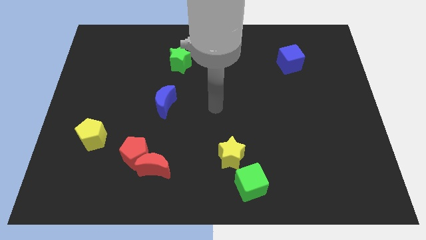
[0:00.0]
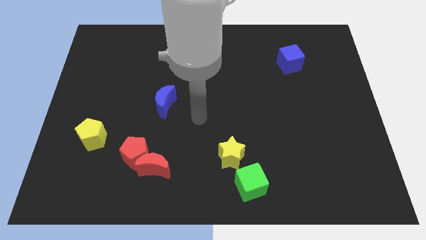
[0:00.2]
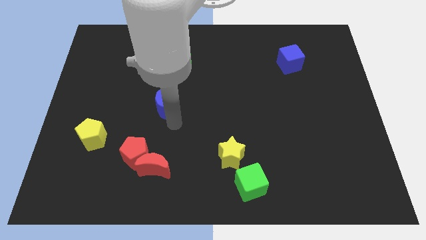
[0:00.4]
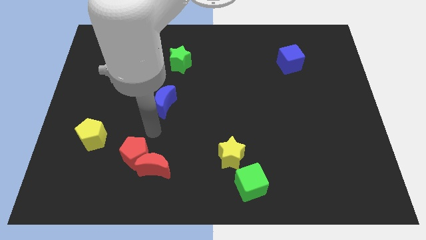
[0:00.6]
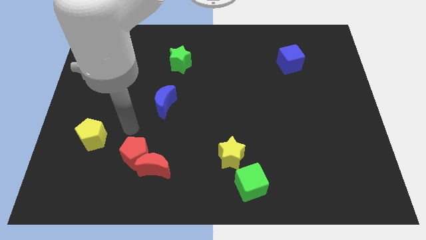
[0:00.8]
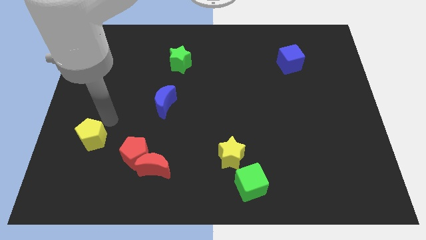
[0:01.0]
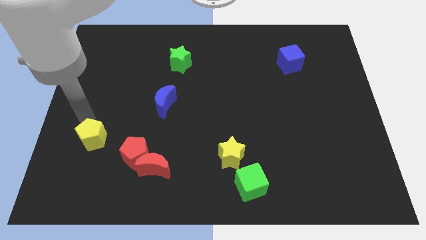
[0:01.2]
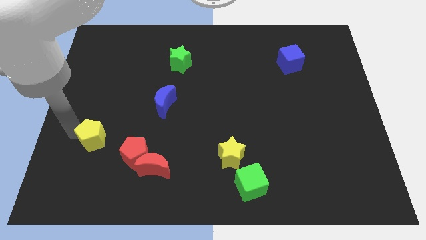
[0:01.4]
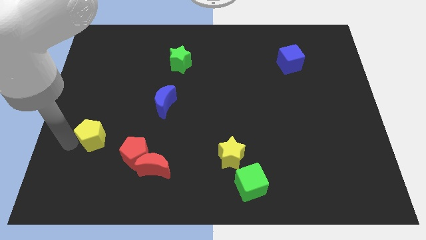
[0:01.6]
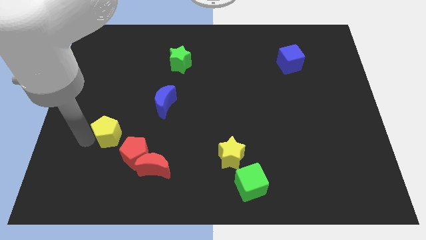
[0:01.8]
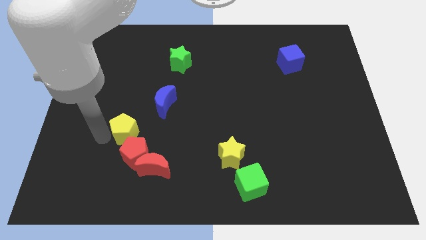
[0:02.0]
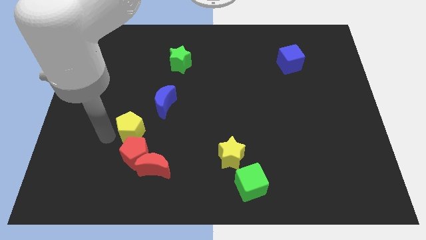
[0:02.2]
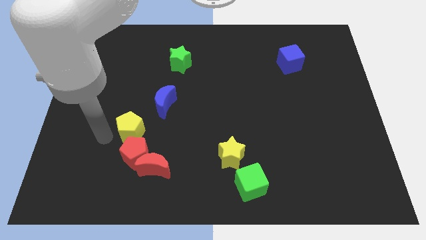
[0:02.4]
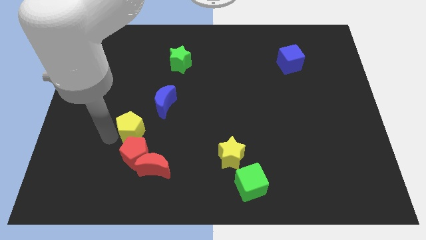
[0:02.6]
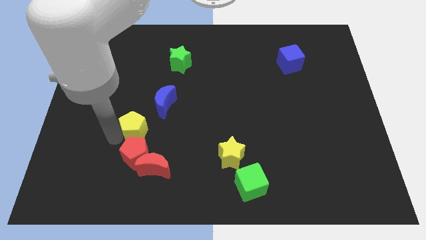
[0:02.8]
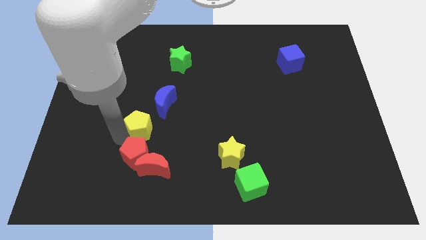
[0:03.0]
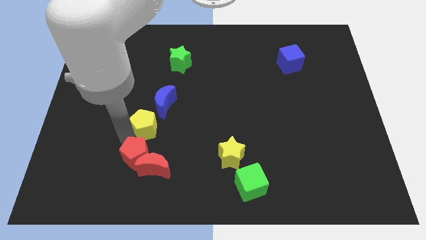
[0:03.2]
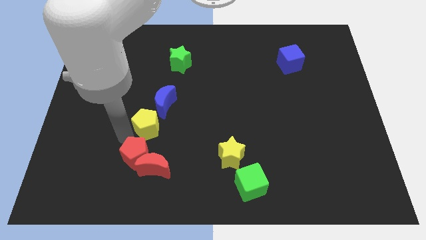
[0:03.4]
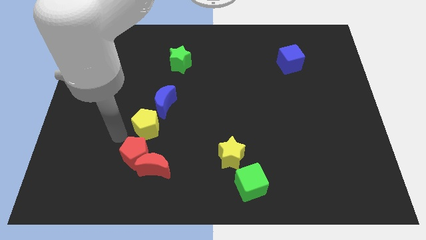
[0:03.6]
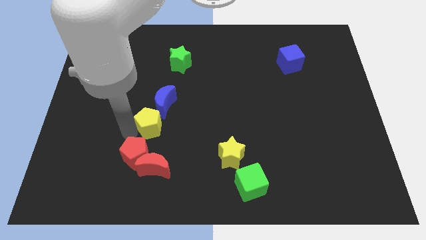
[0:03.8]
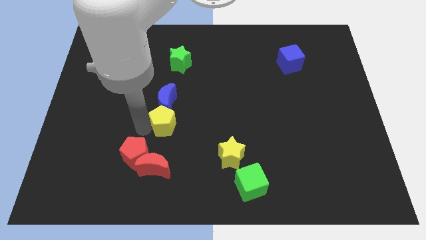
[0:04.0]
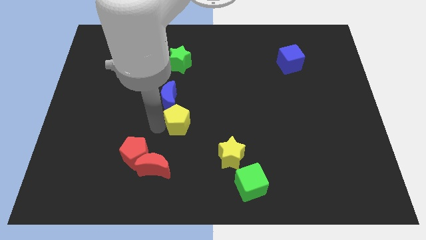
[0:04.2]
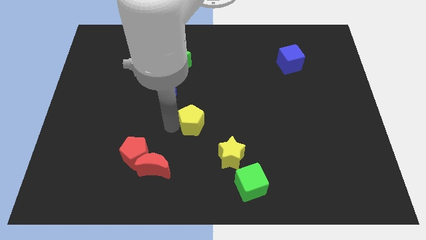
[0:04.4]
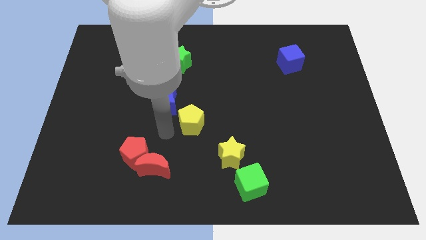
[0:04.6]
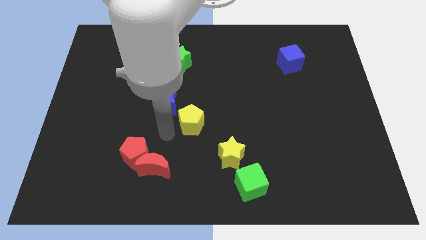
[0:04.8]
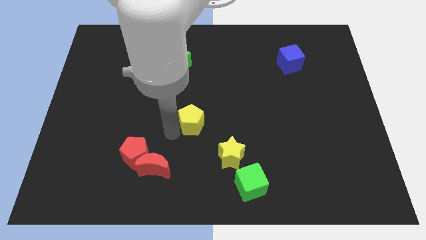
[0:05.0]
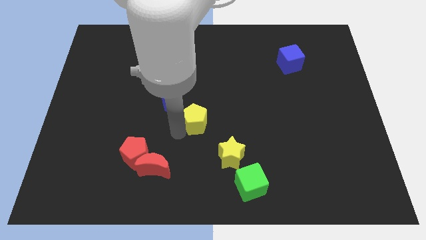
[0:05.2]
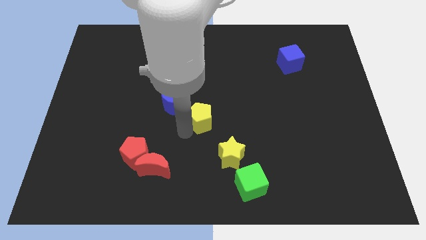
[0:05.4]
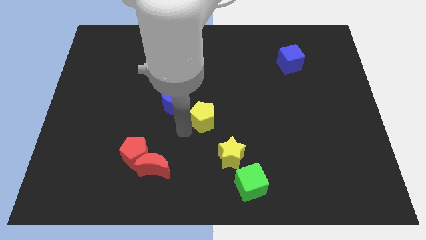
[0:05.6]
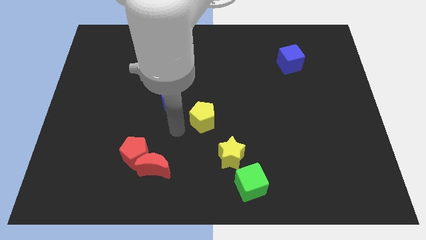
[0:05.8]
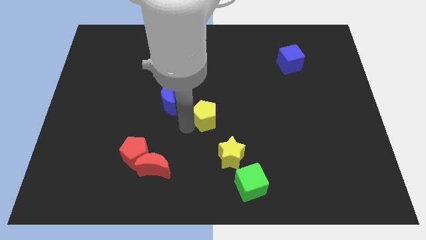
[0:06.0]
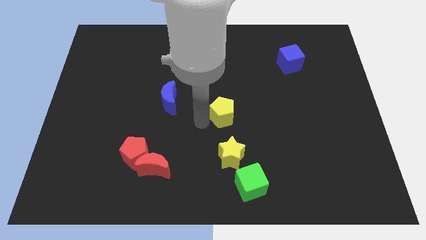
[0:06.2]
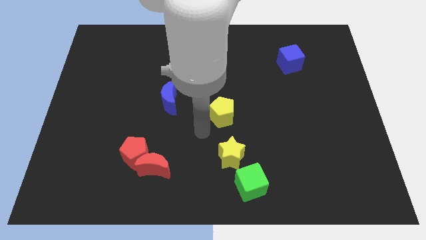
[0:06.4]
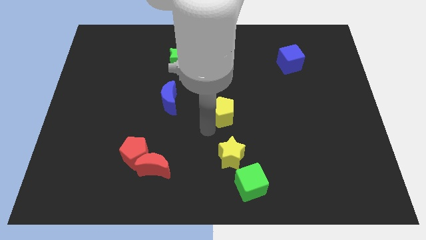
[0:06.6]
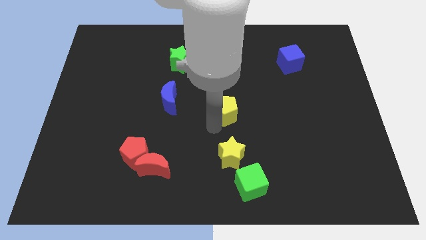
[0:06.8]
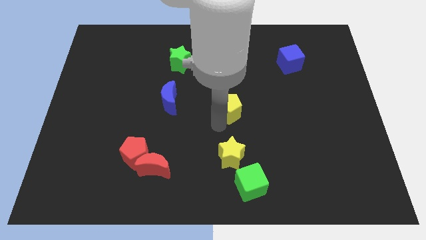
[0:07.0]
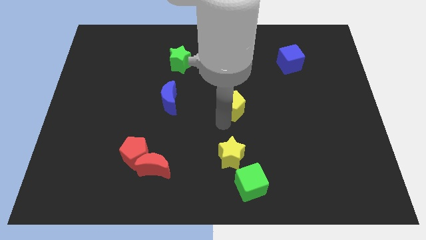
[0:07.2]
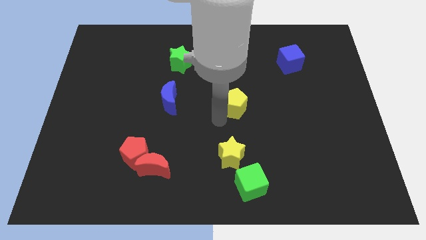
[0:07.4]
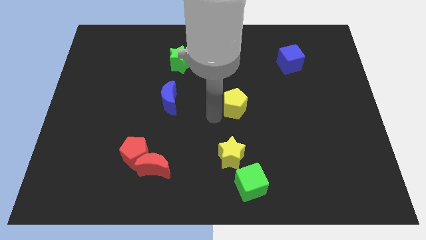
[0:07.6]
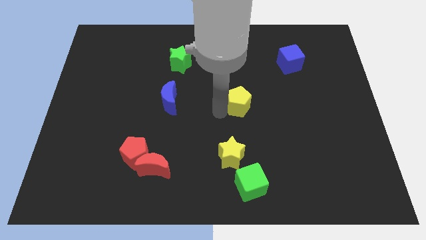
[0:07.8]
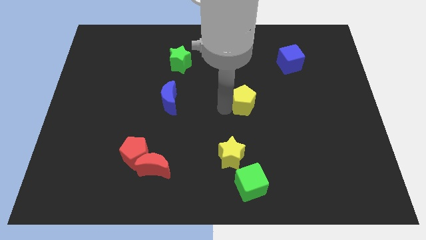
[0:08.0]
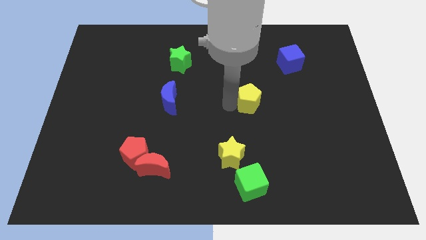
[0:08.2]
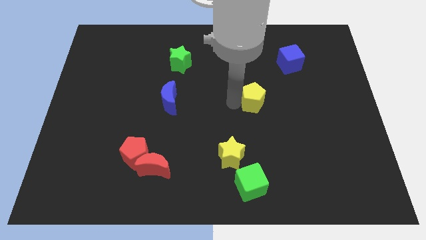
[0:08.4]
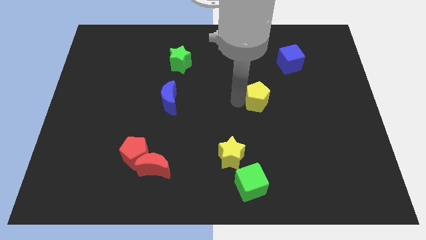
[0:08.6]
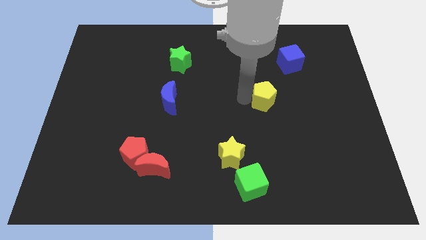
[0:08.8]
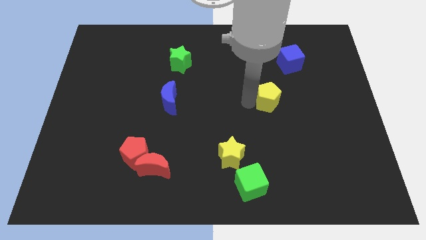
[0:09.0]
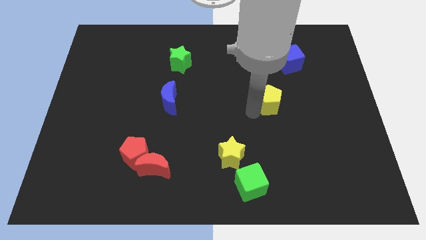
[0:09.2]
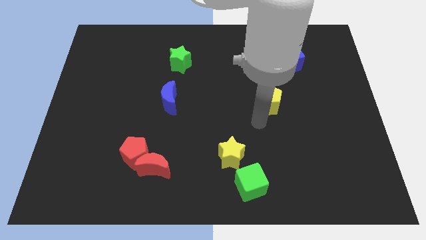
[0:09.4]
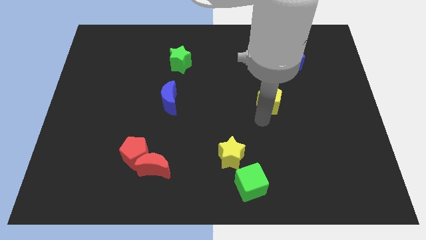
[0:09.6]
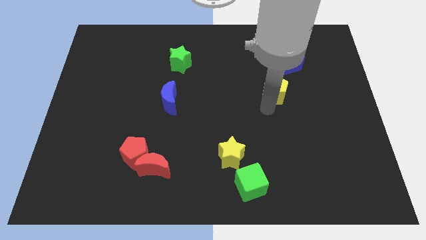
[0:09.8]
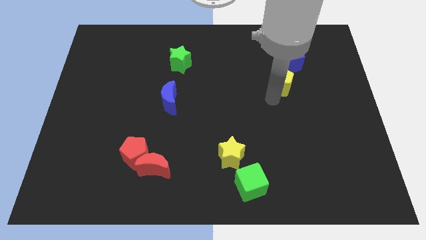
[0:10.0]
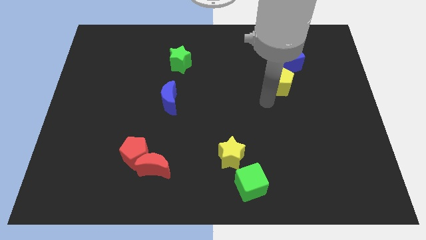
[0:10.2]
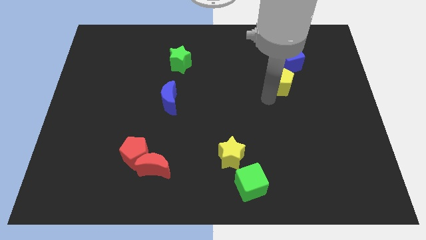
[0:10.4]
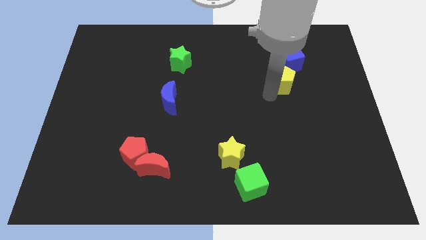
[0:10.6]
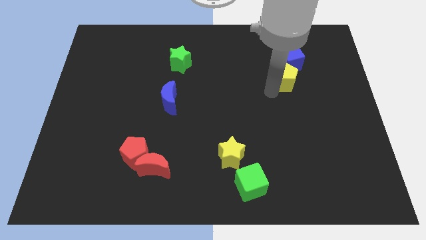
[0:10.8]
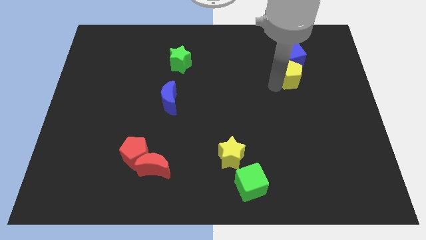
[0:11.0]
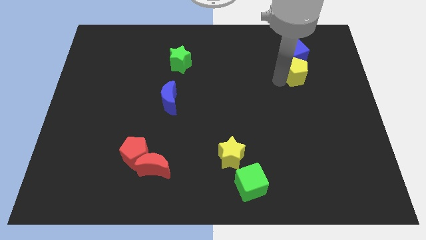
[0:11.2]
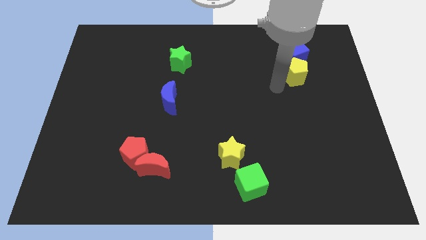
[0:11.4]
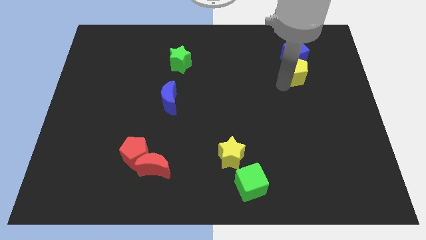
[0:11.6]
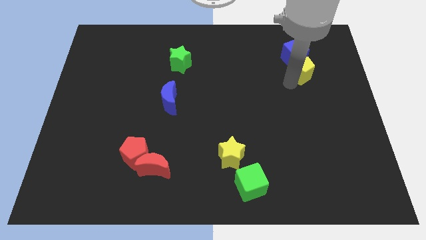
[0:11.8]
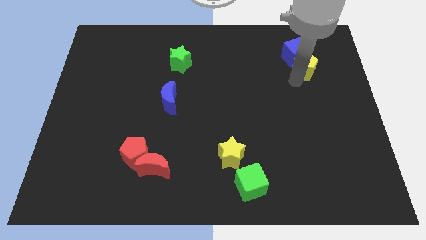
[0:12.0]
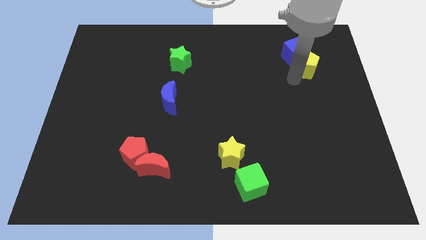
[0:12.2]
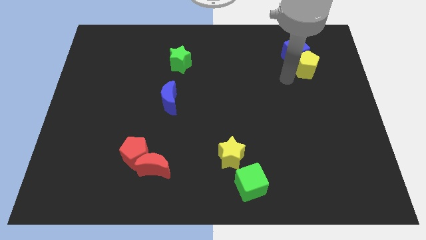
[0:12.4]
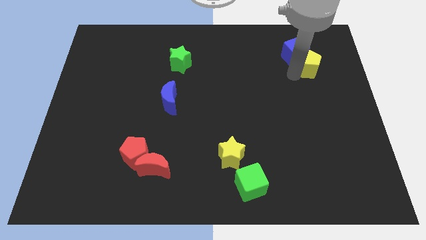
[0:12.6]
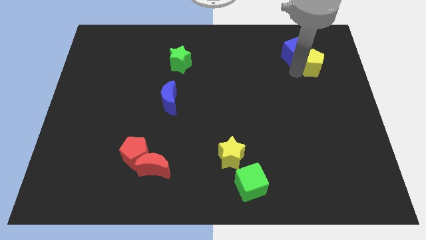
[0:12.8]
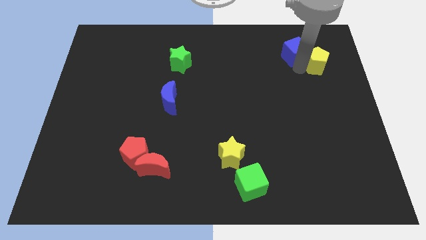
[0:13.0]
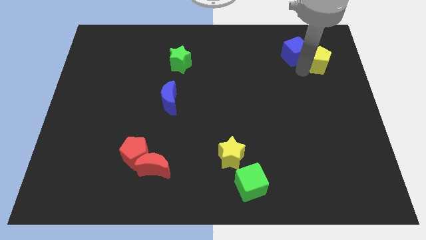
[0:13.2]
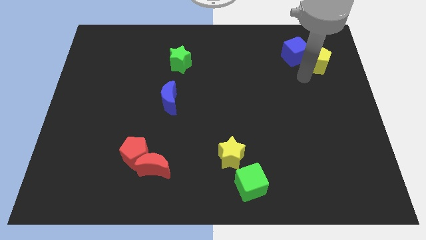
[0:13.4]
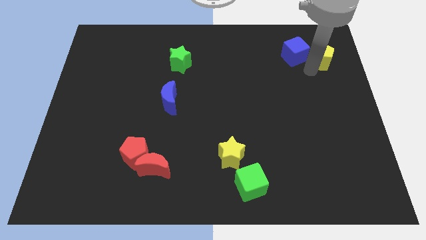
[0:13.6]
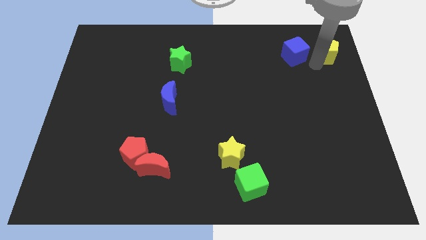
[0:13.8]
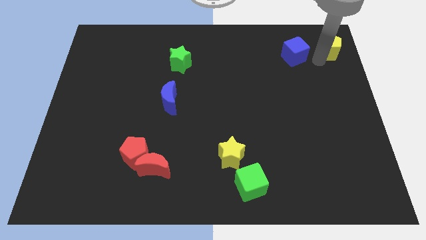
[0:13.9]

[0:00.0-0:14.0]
put the yellow pentagon to the upper right corner

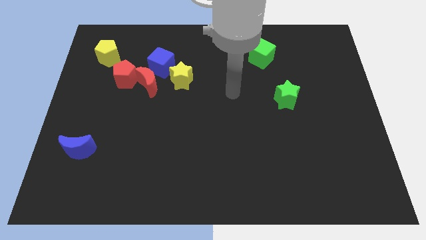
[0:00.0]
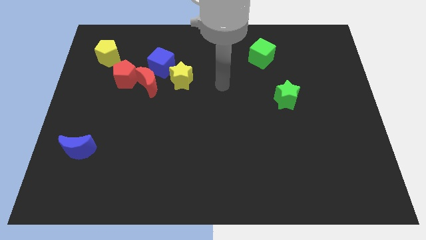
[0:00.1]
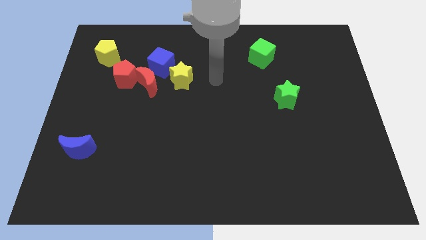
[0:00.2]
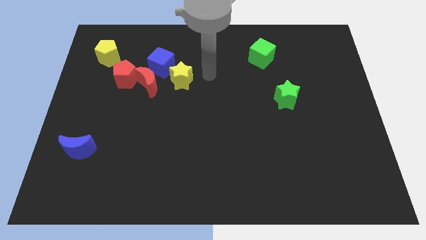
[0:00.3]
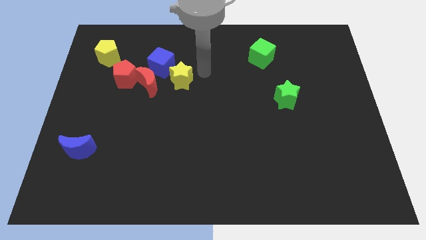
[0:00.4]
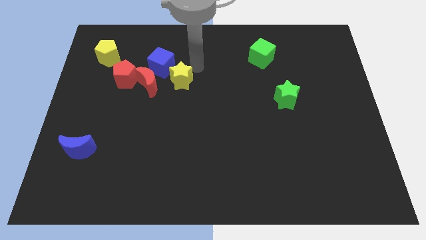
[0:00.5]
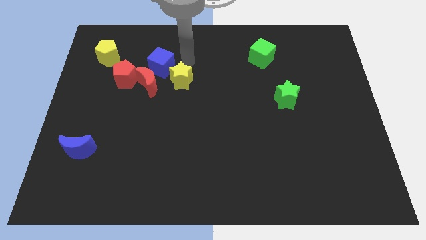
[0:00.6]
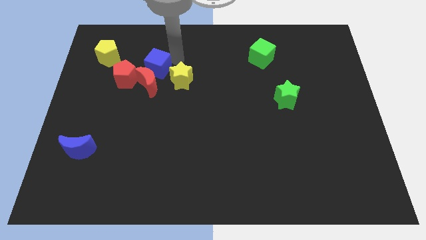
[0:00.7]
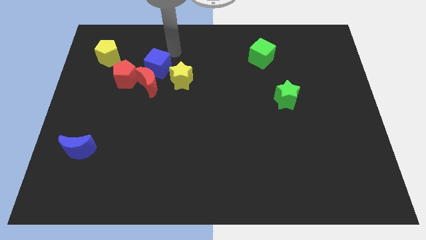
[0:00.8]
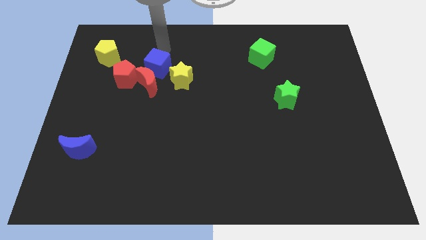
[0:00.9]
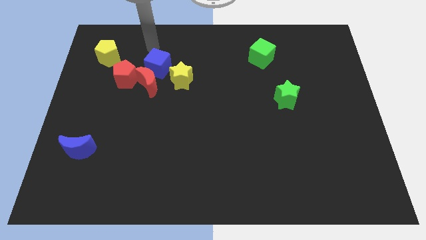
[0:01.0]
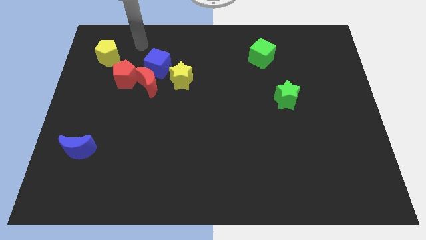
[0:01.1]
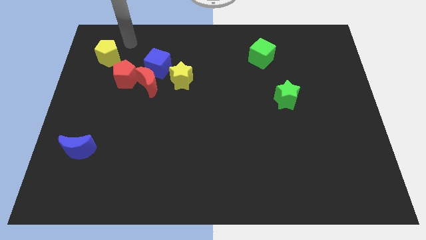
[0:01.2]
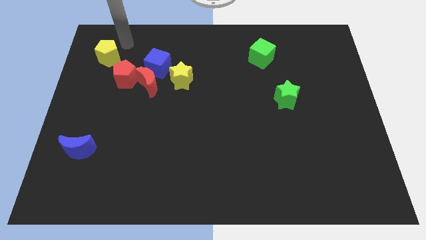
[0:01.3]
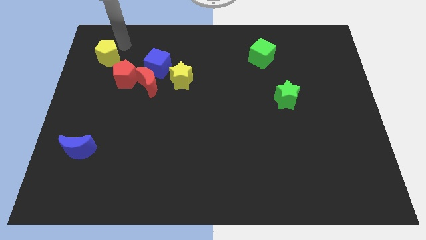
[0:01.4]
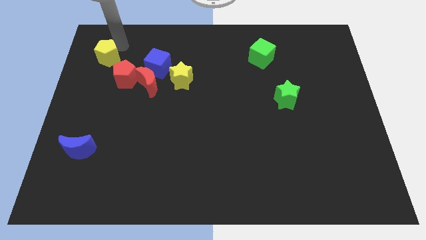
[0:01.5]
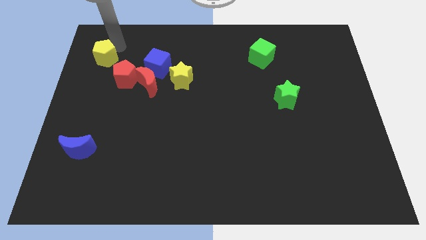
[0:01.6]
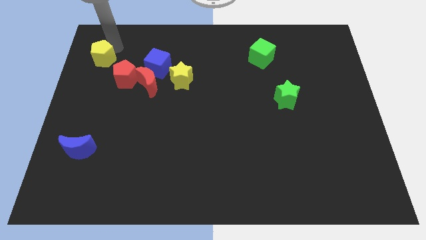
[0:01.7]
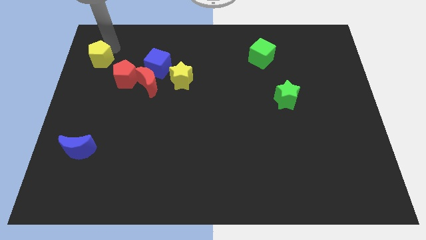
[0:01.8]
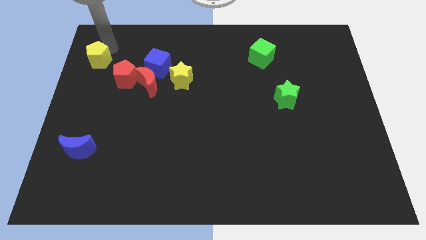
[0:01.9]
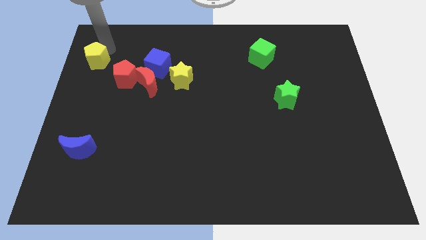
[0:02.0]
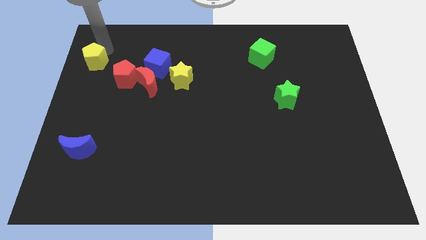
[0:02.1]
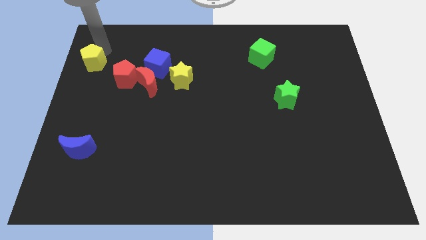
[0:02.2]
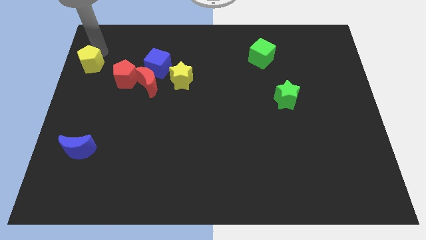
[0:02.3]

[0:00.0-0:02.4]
move the yellow pentagon to the left side
